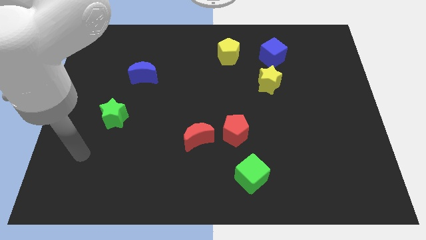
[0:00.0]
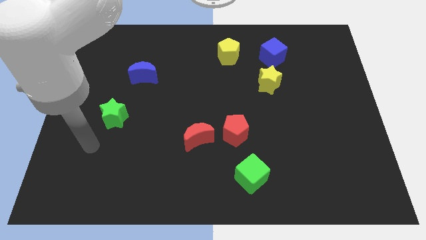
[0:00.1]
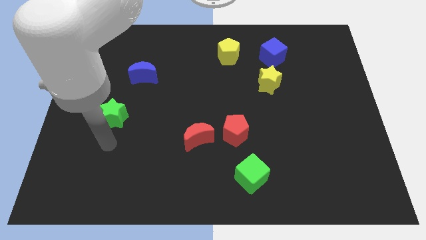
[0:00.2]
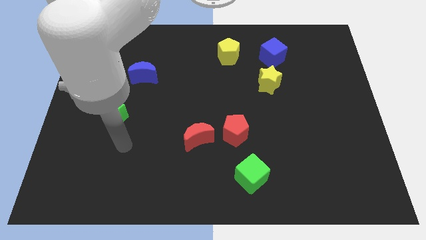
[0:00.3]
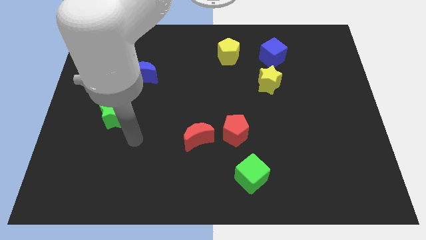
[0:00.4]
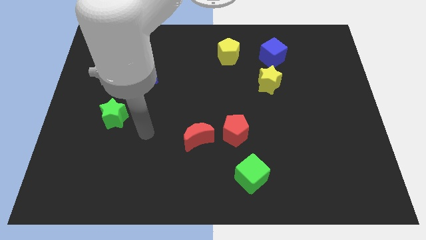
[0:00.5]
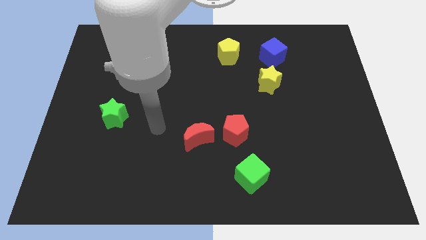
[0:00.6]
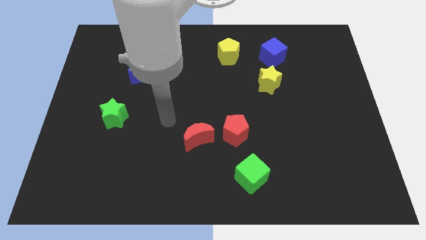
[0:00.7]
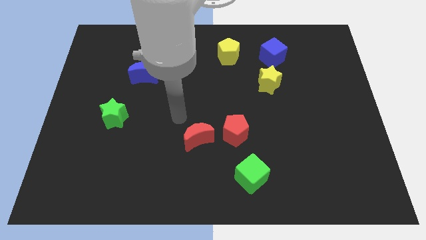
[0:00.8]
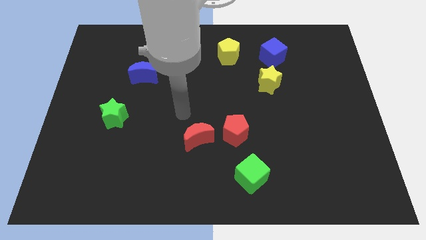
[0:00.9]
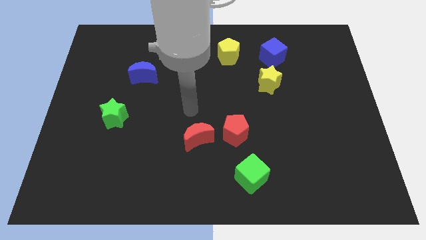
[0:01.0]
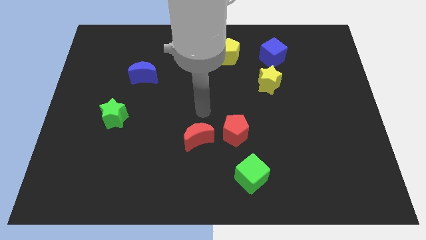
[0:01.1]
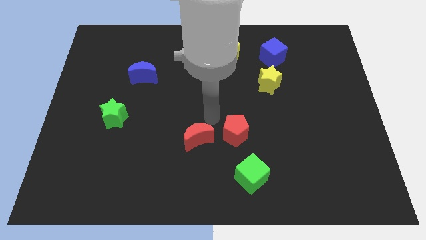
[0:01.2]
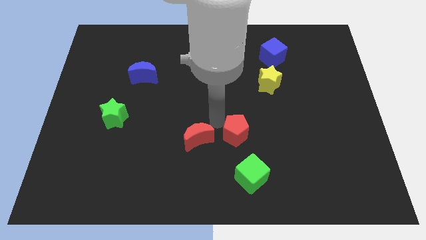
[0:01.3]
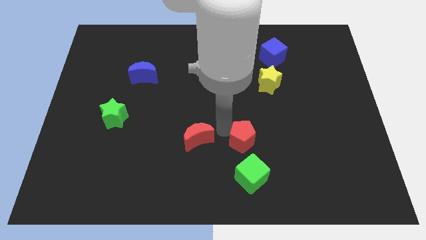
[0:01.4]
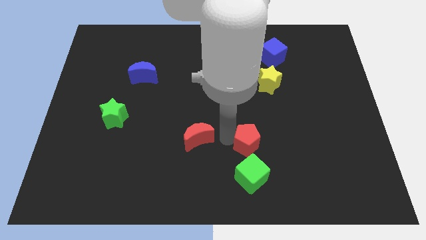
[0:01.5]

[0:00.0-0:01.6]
pull the red moon apart from the red pentagon

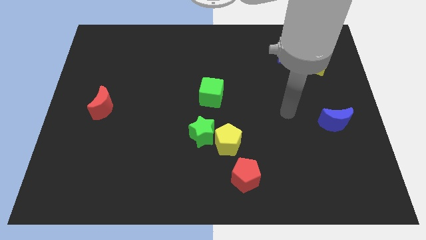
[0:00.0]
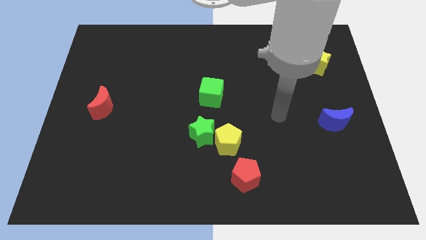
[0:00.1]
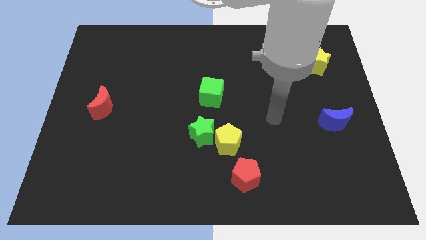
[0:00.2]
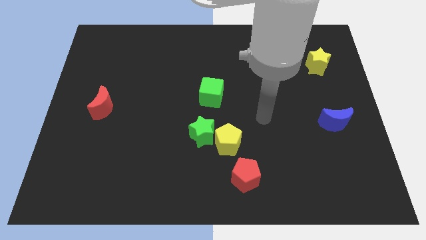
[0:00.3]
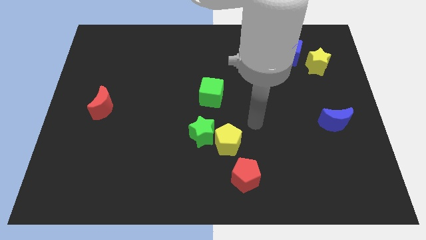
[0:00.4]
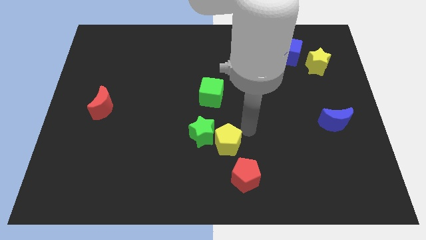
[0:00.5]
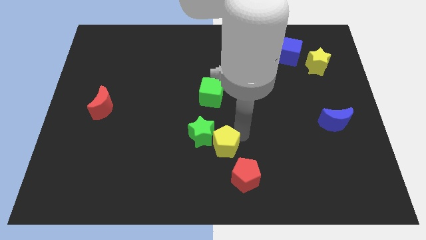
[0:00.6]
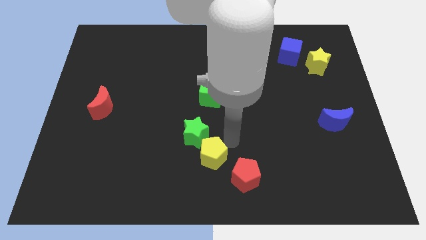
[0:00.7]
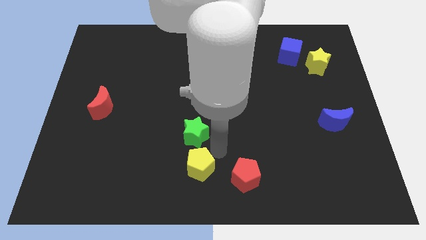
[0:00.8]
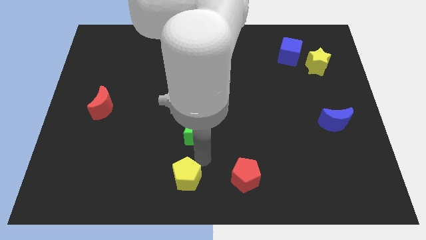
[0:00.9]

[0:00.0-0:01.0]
separate the green star from the yellow pentagon

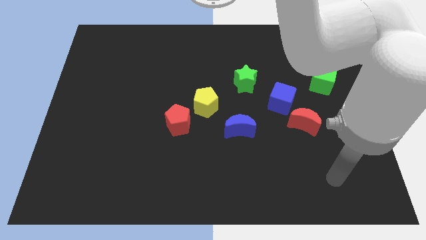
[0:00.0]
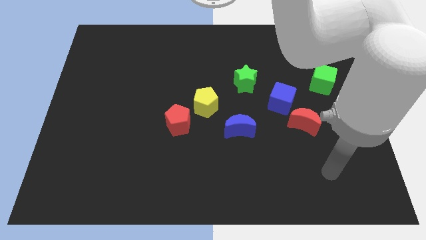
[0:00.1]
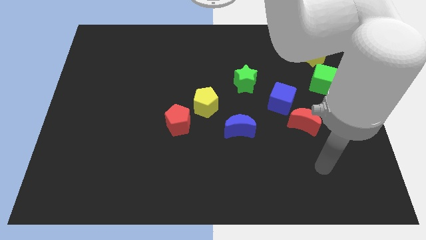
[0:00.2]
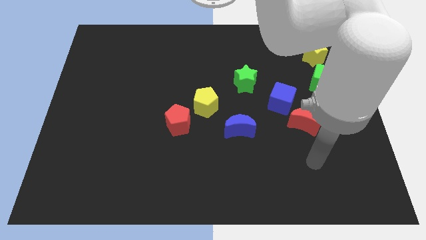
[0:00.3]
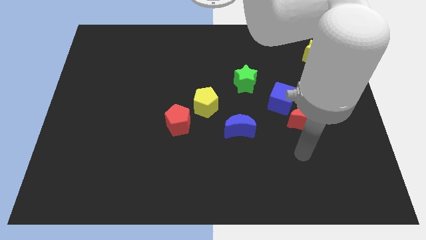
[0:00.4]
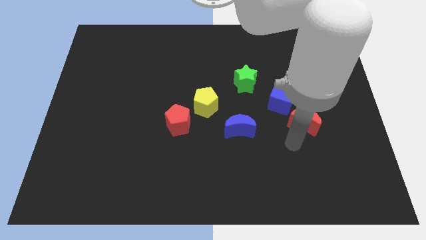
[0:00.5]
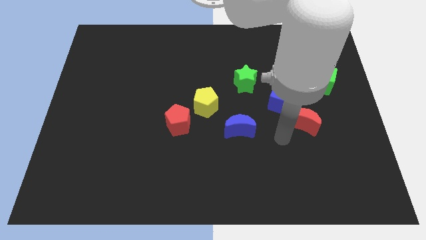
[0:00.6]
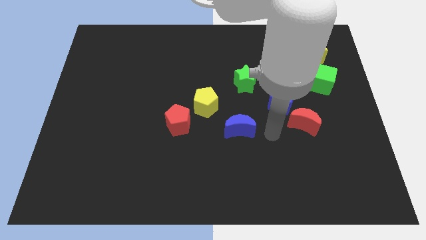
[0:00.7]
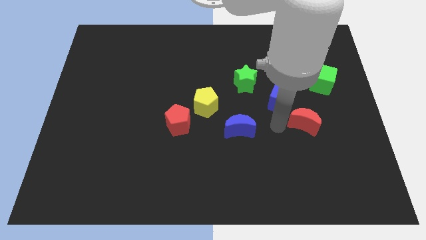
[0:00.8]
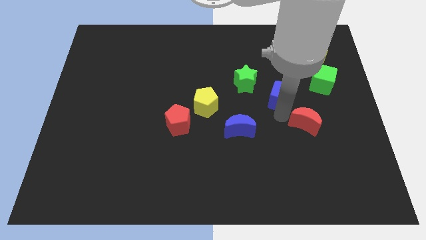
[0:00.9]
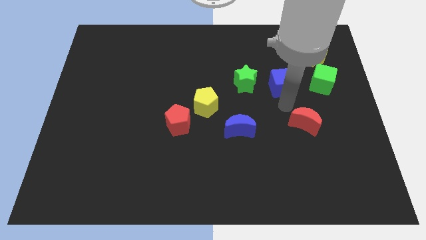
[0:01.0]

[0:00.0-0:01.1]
separate the red moon from the blue cube

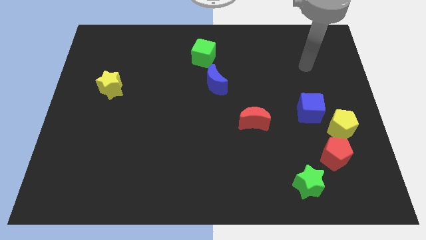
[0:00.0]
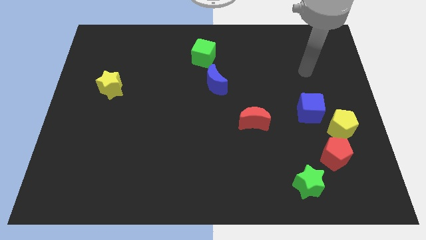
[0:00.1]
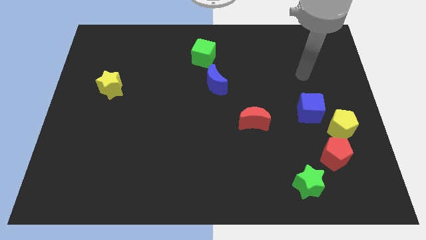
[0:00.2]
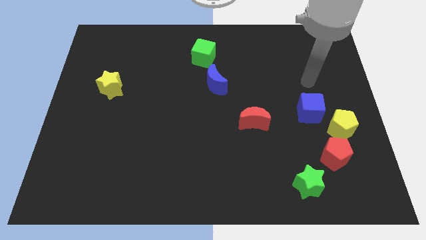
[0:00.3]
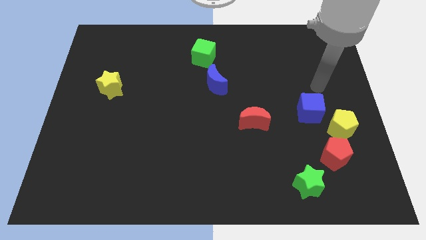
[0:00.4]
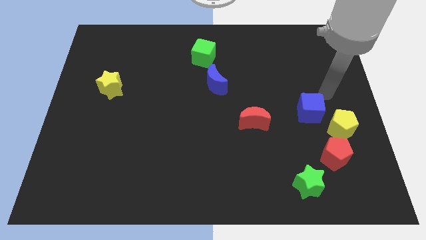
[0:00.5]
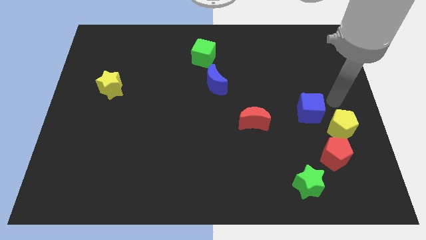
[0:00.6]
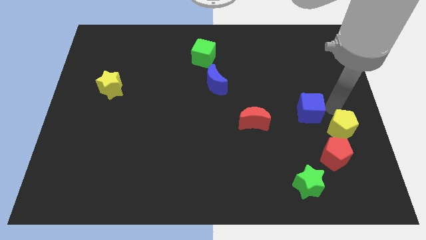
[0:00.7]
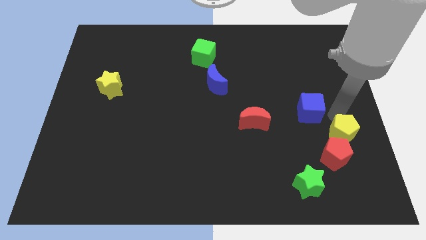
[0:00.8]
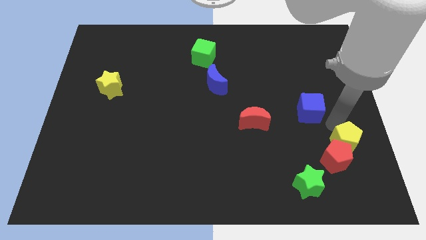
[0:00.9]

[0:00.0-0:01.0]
move the blue cube away from the yellow pentagon

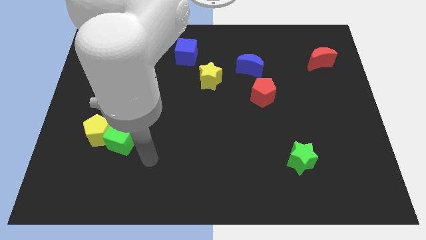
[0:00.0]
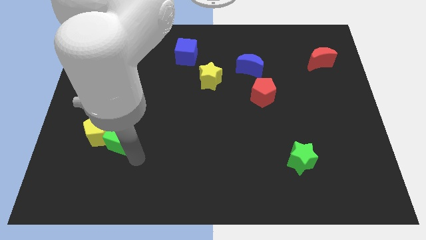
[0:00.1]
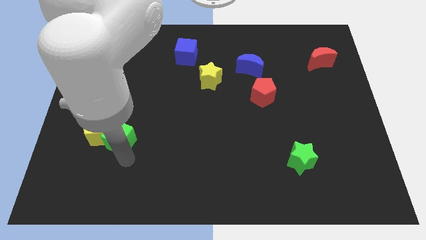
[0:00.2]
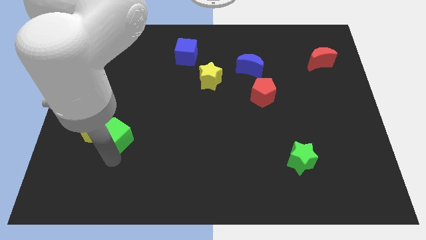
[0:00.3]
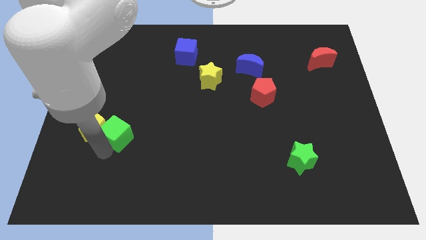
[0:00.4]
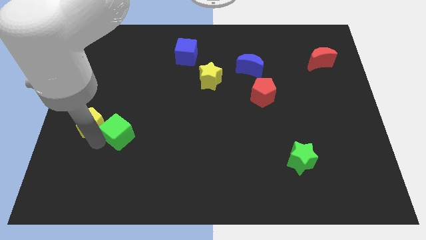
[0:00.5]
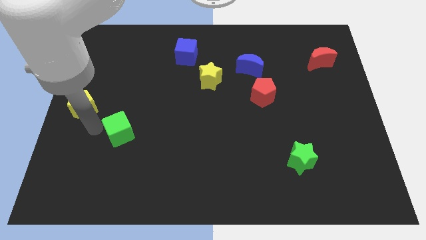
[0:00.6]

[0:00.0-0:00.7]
pull the green cube apart from the yellow pentagon

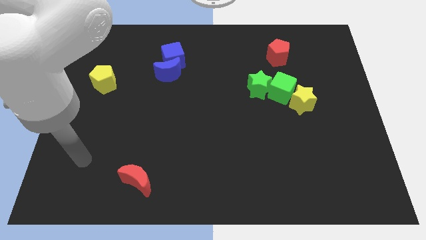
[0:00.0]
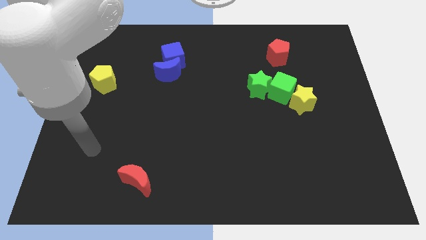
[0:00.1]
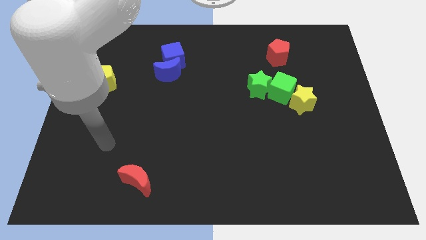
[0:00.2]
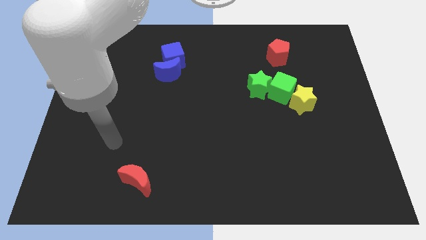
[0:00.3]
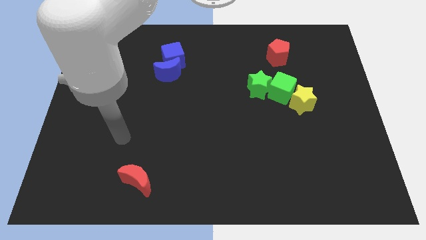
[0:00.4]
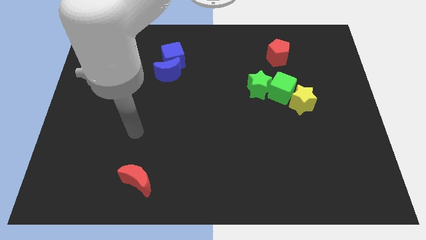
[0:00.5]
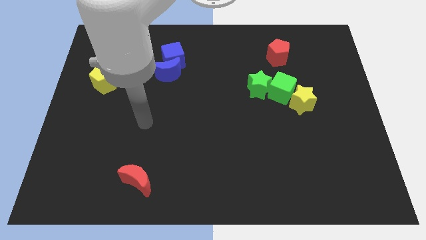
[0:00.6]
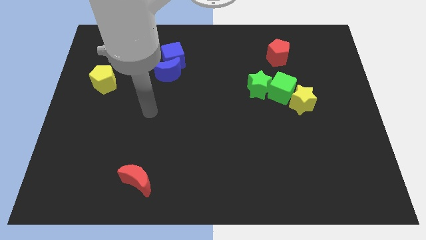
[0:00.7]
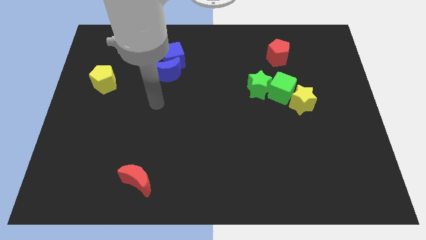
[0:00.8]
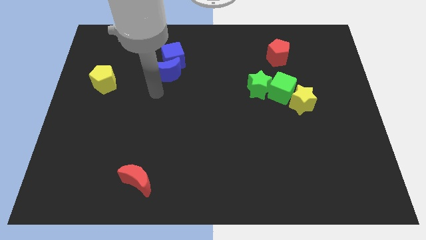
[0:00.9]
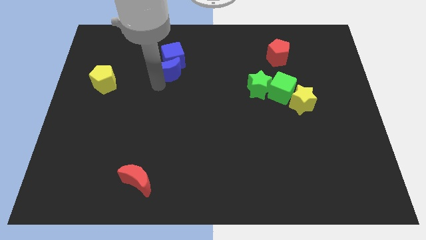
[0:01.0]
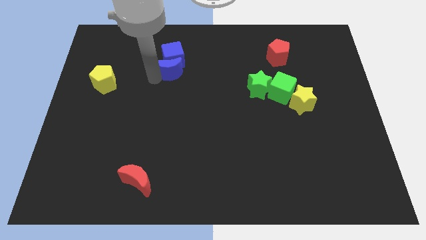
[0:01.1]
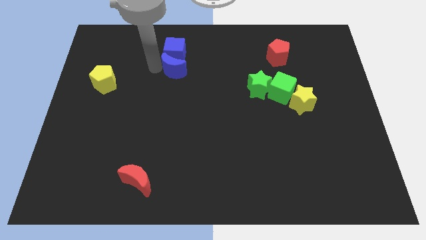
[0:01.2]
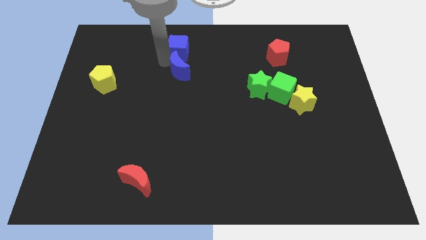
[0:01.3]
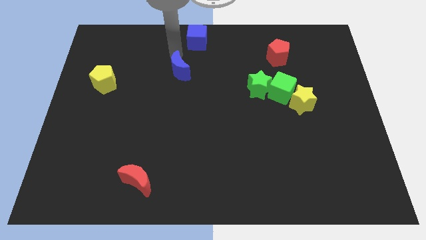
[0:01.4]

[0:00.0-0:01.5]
move the blue moon away from the blue cube

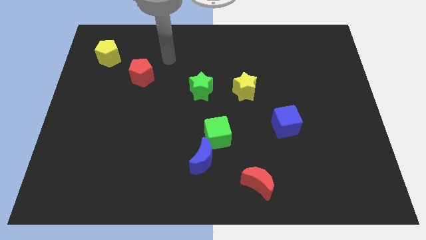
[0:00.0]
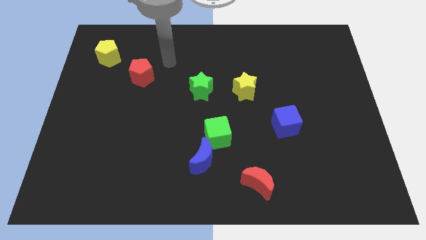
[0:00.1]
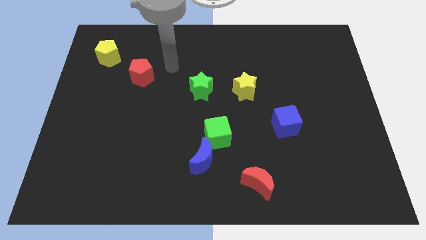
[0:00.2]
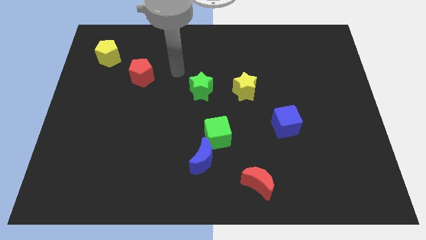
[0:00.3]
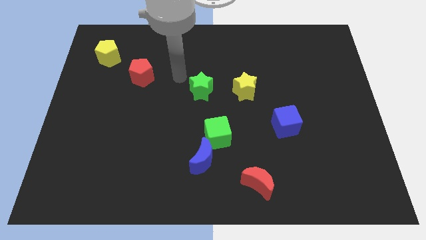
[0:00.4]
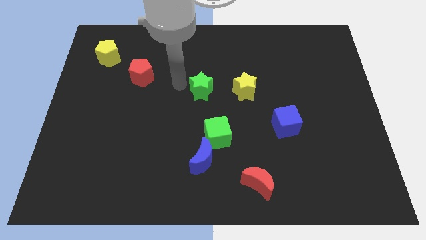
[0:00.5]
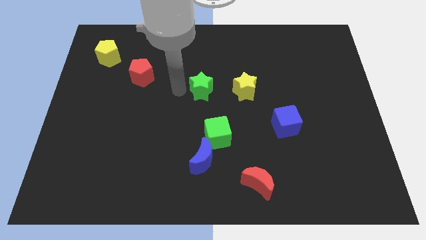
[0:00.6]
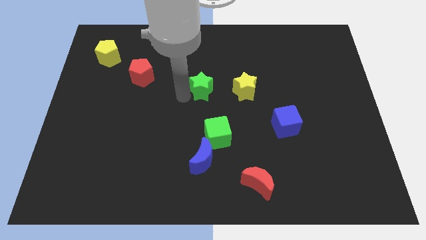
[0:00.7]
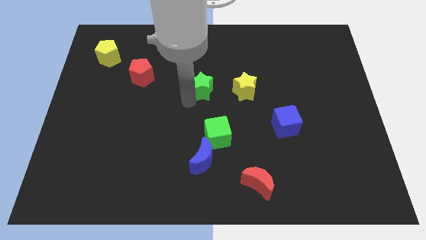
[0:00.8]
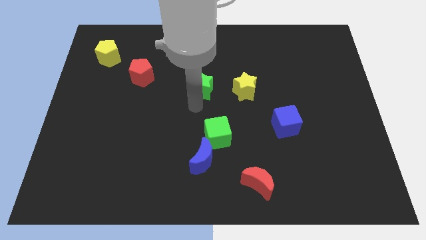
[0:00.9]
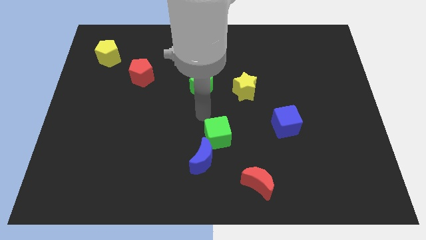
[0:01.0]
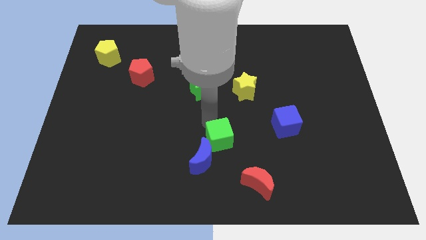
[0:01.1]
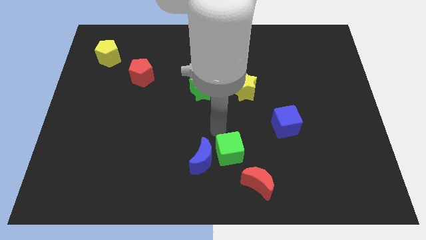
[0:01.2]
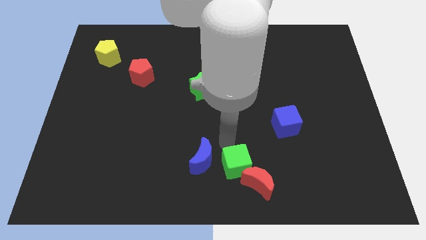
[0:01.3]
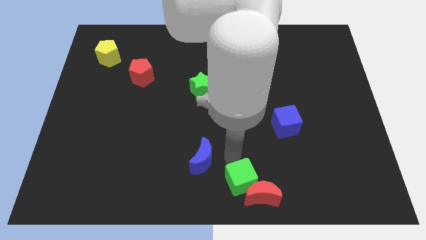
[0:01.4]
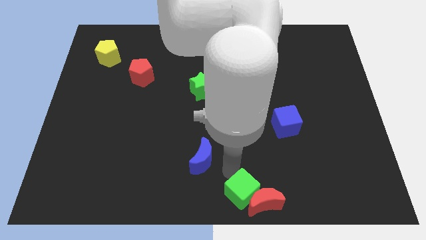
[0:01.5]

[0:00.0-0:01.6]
pull the blue moon apart from the green cube

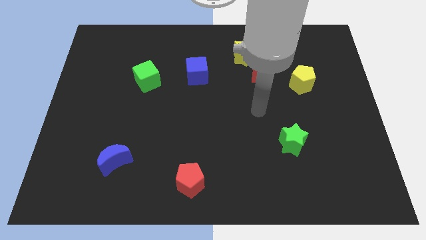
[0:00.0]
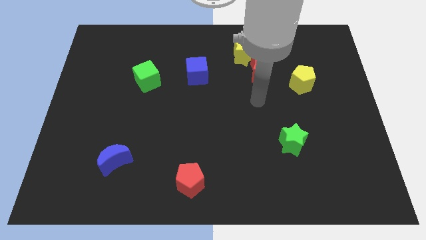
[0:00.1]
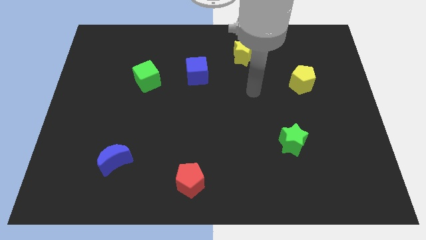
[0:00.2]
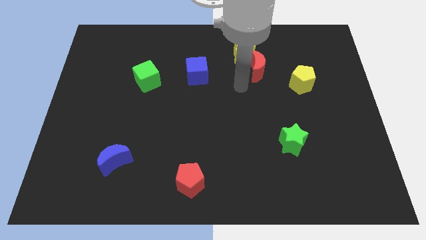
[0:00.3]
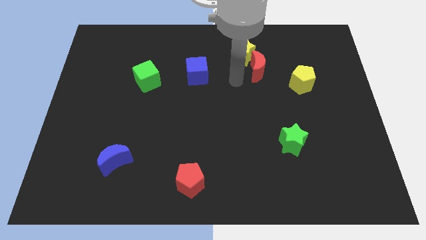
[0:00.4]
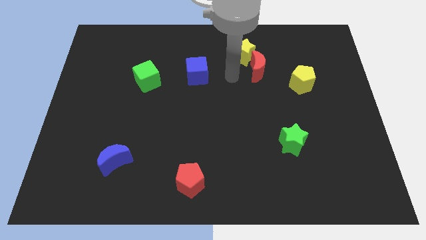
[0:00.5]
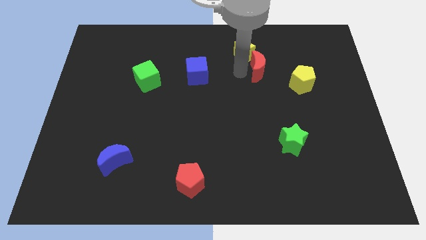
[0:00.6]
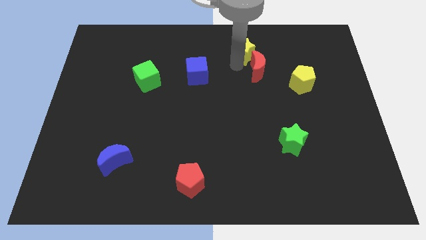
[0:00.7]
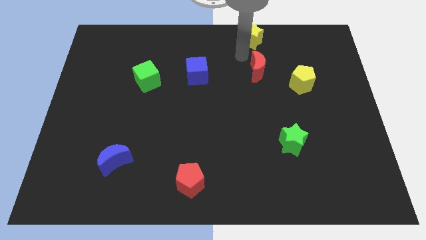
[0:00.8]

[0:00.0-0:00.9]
separate the red moon from the yellow star
